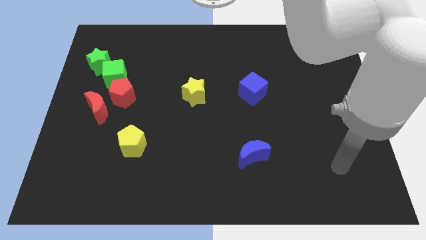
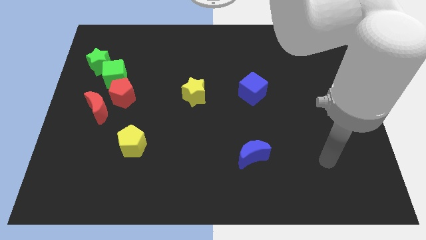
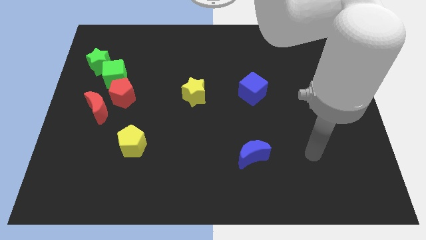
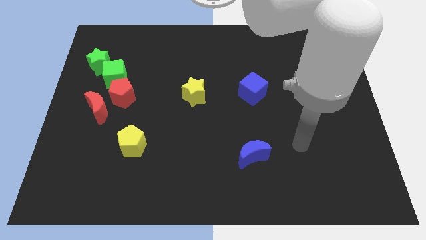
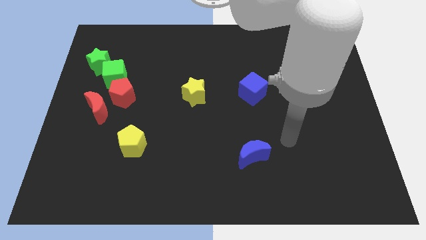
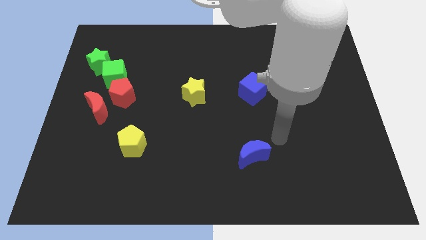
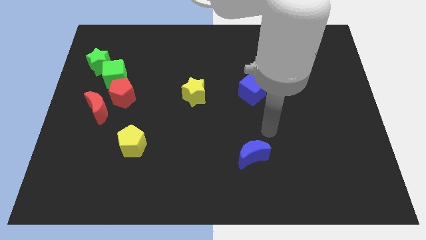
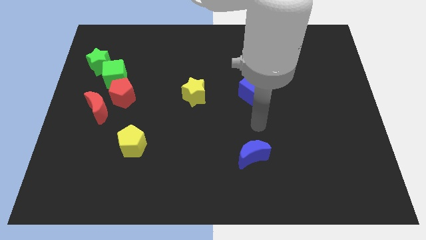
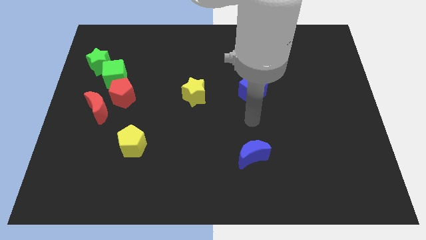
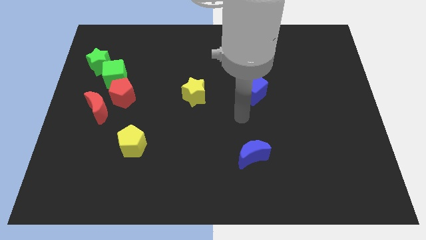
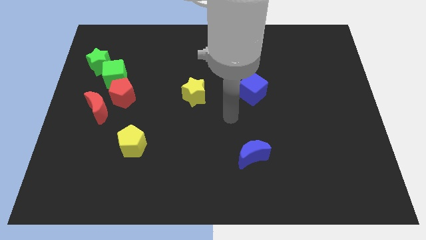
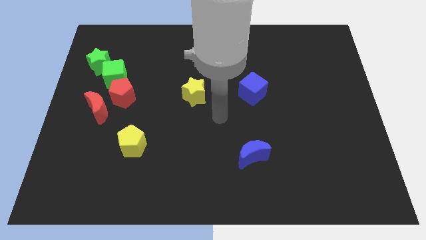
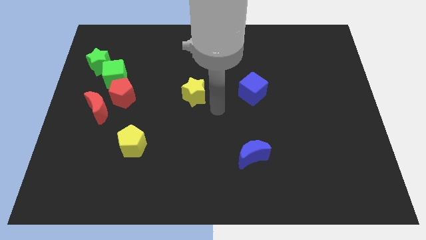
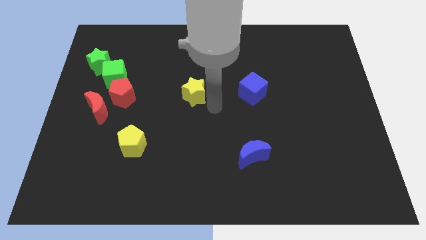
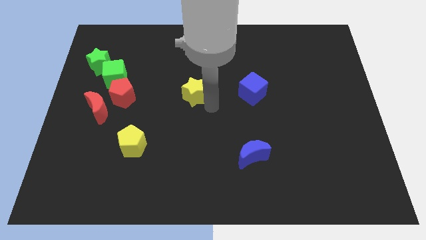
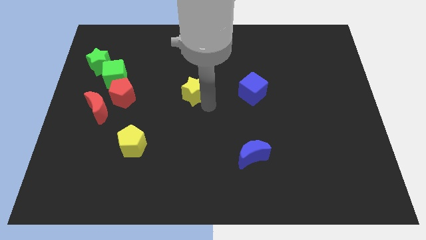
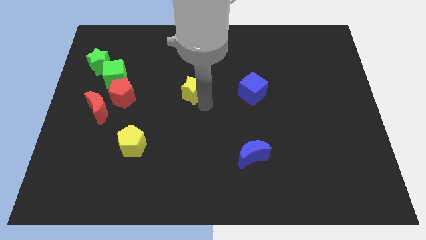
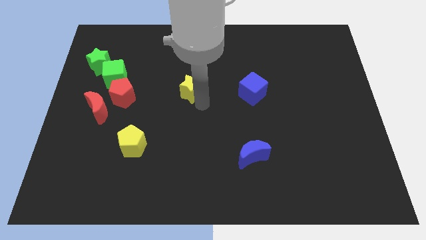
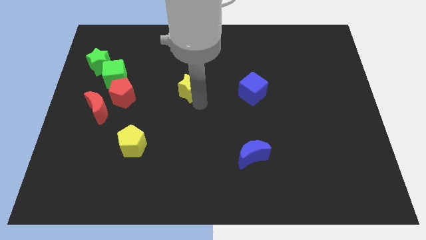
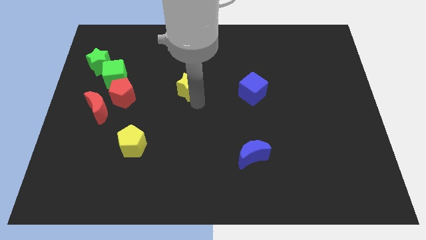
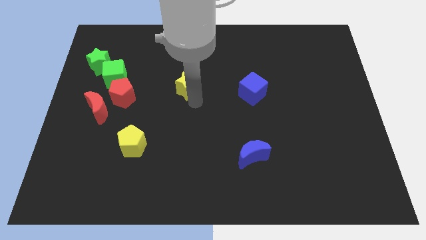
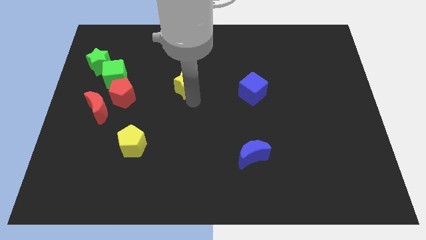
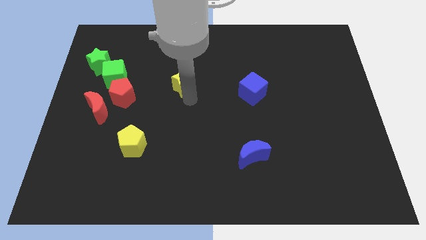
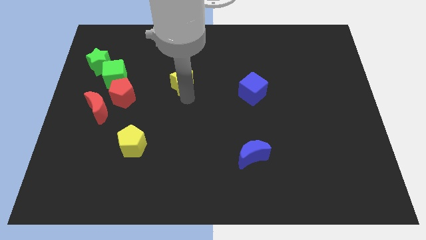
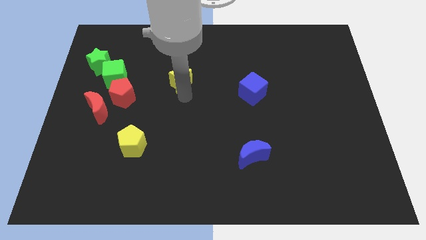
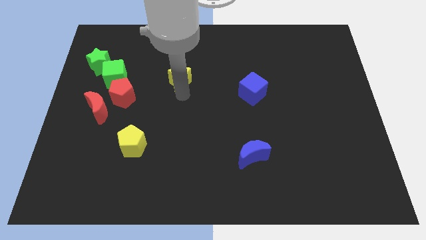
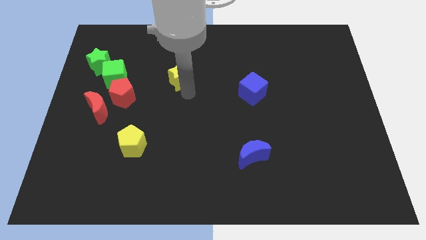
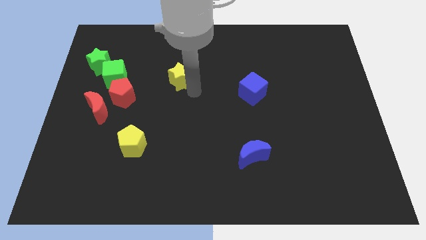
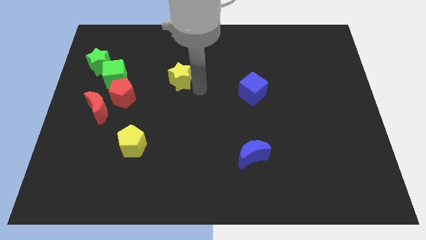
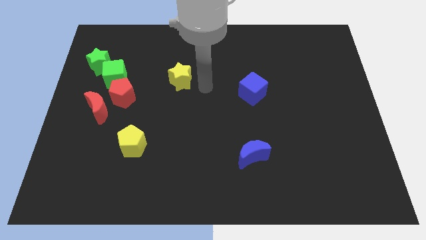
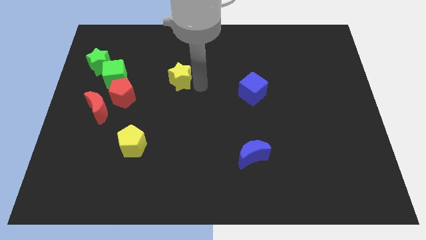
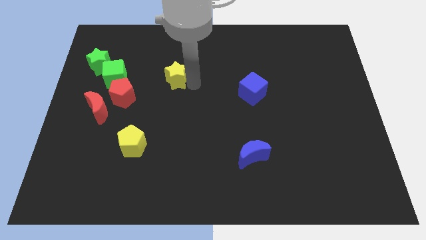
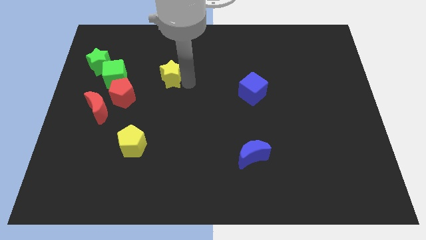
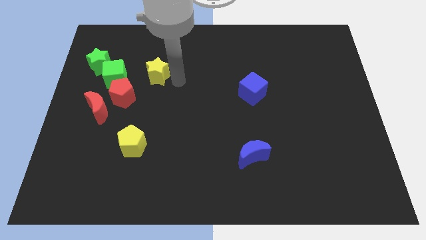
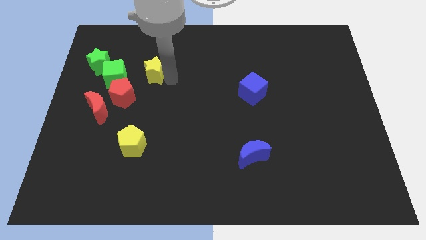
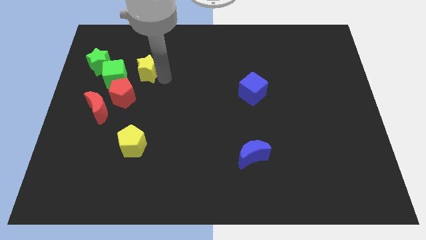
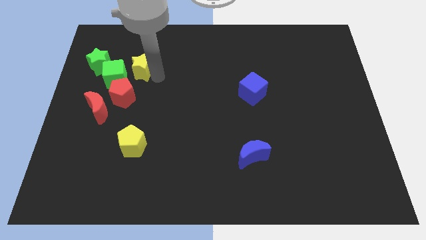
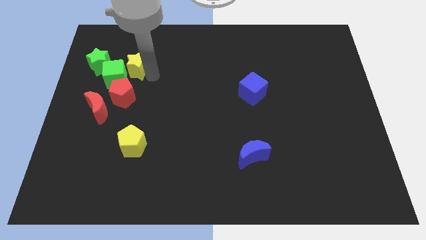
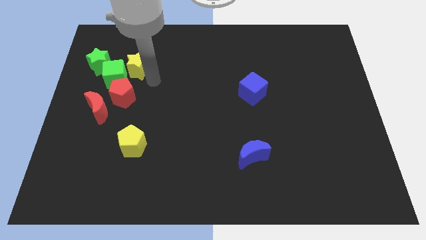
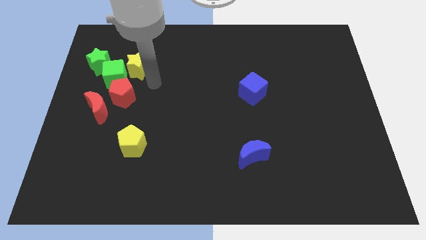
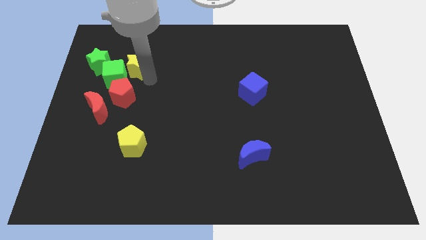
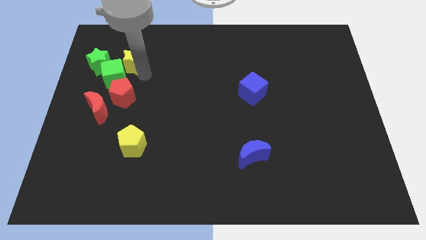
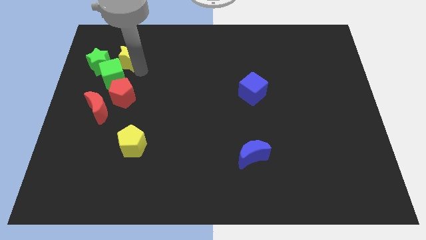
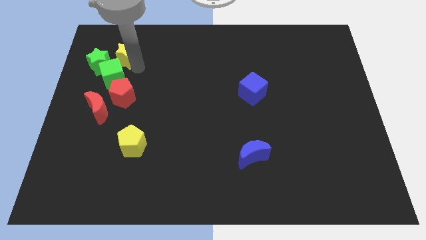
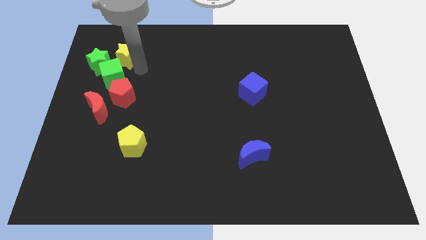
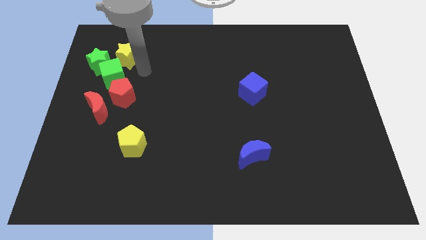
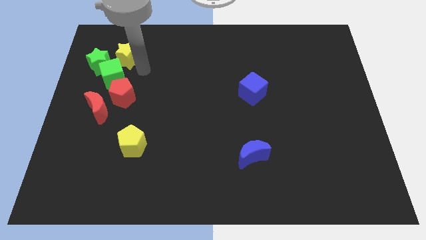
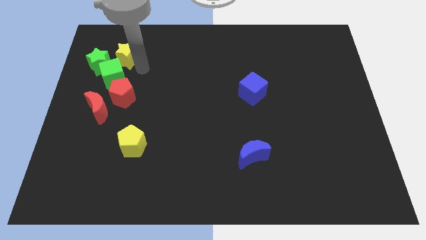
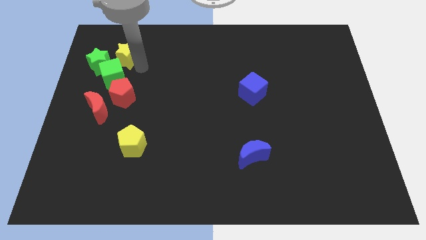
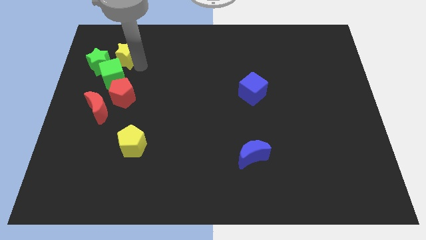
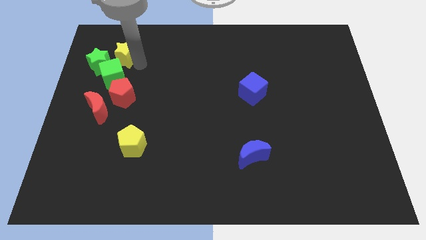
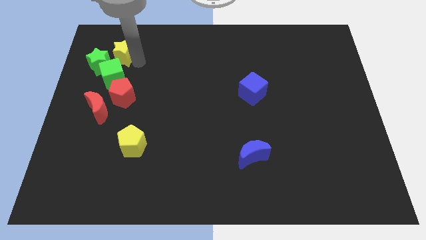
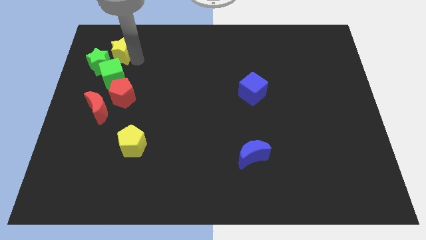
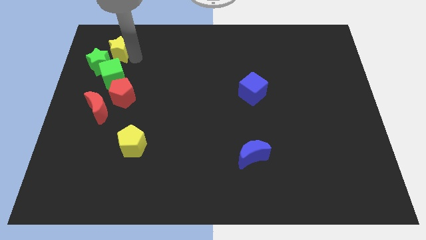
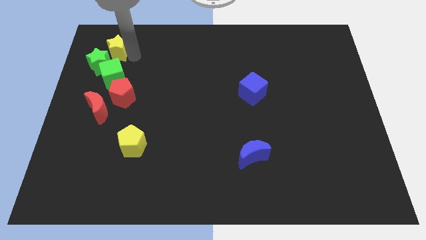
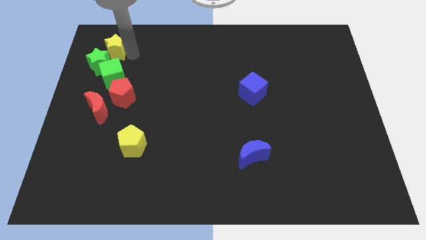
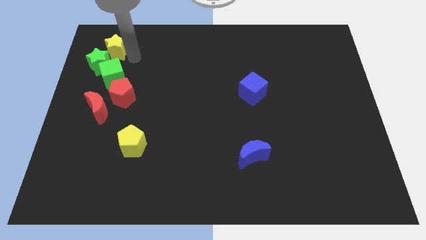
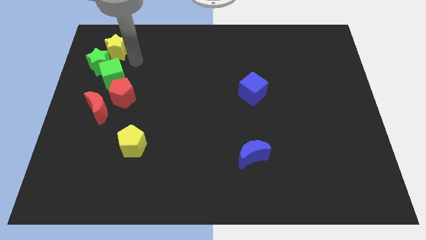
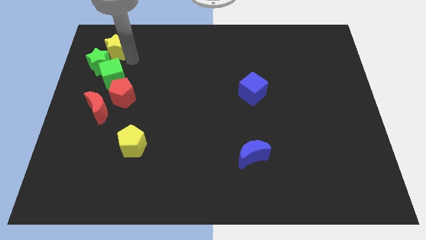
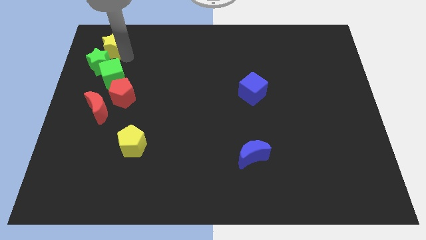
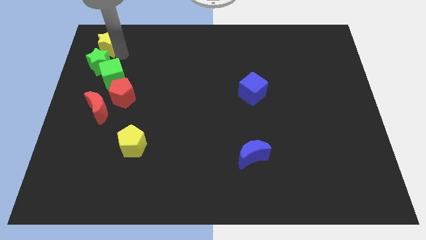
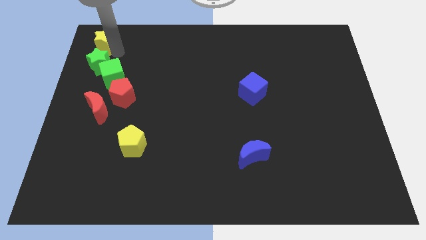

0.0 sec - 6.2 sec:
slide the yellow star to the top left of the board

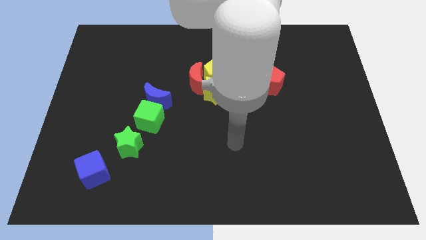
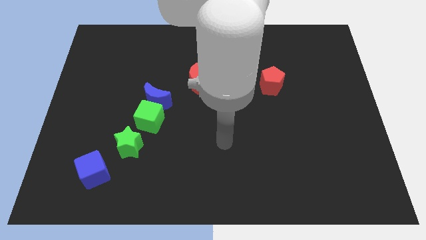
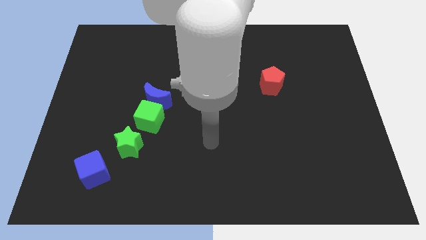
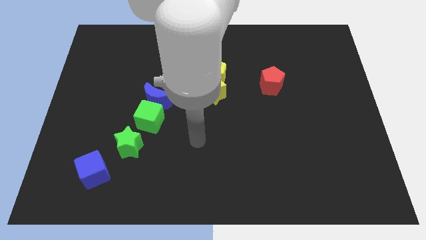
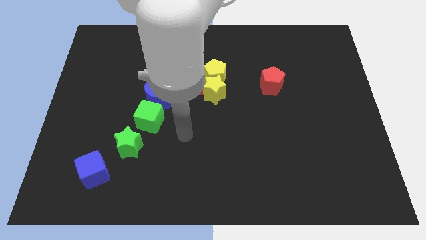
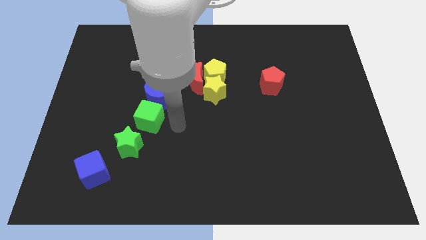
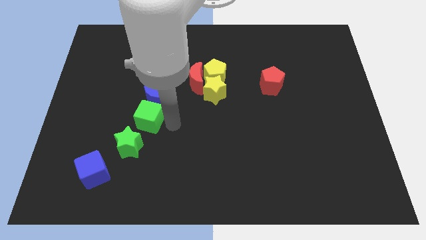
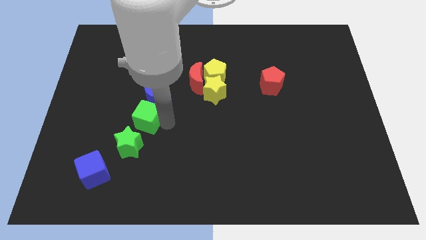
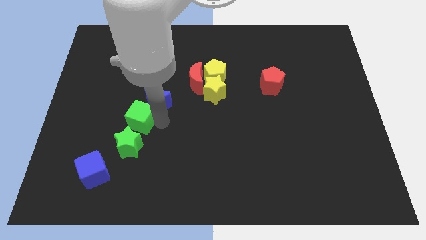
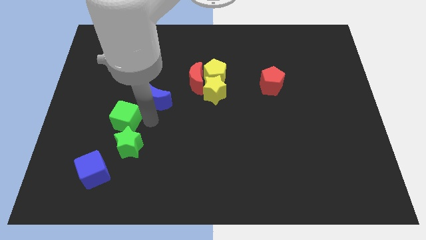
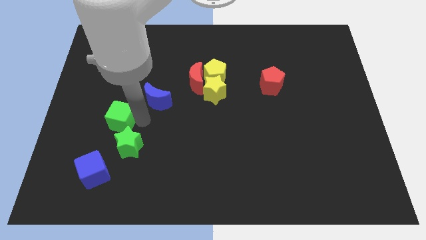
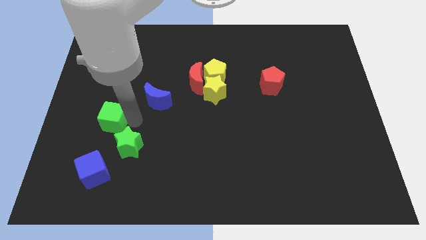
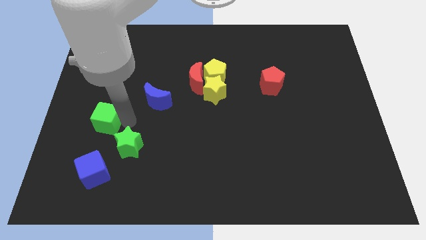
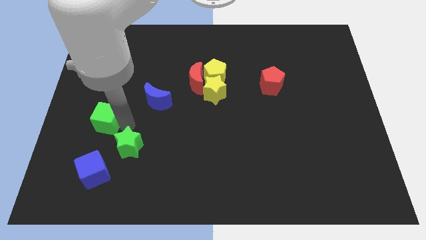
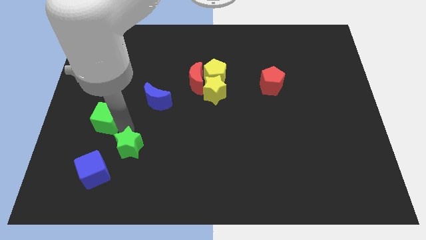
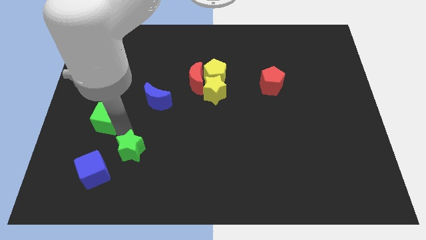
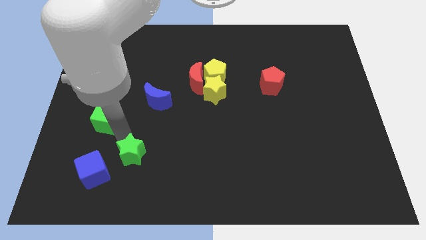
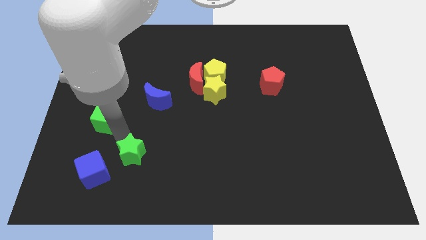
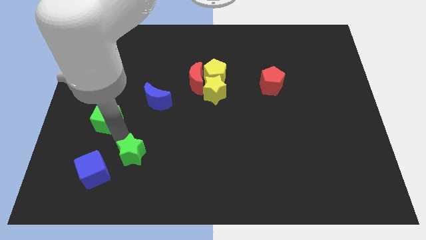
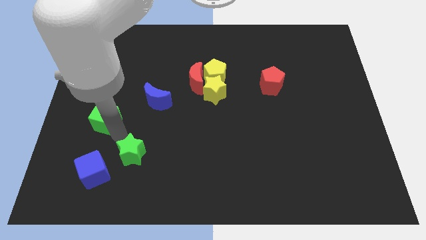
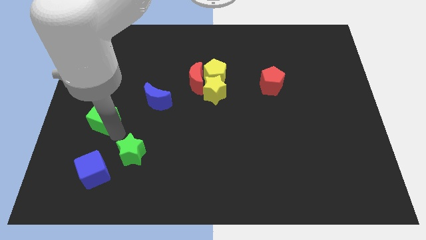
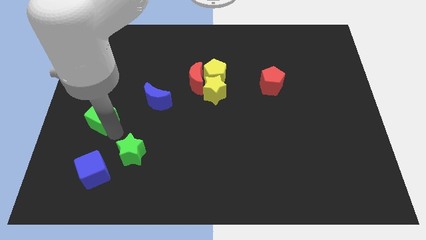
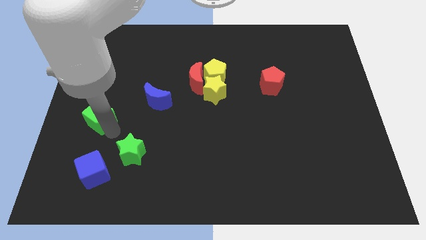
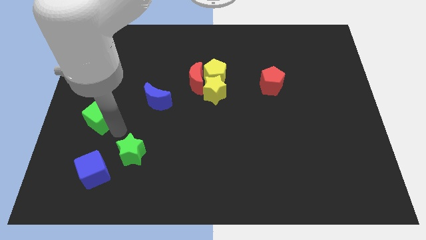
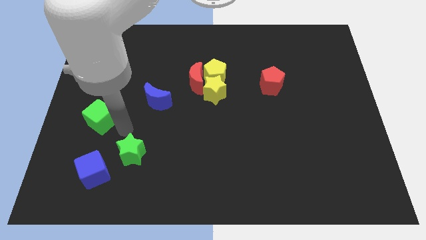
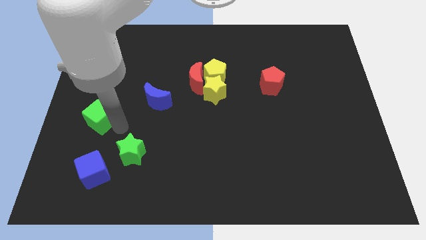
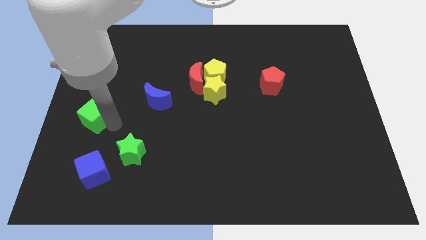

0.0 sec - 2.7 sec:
move the green cube to the left side
